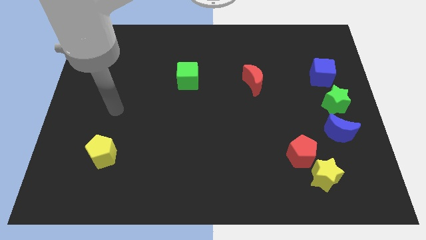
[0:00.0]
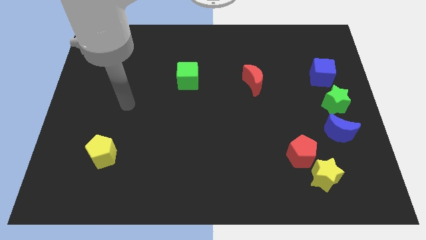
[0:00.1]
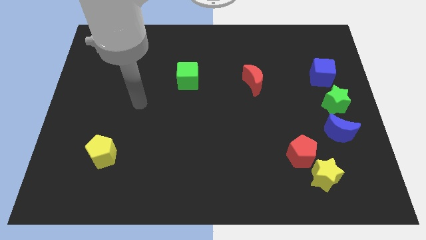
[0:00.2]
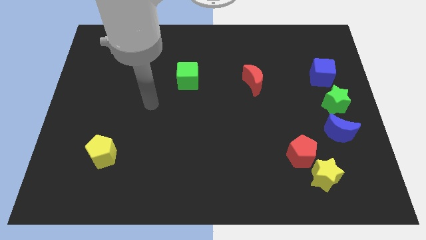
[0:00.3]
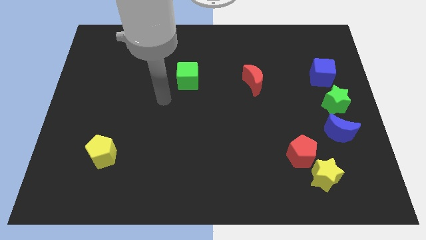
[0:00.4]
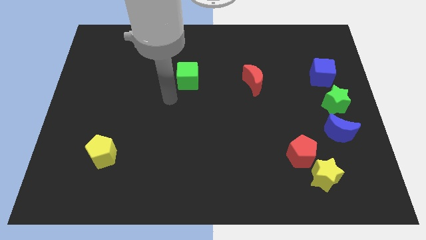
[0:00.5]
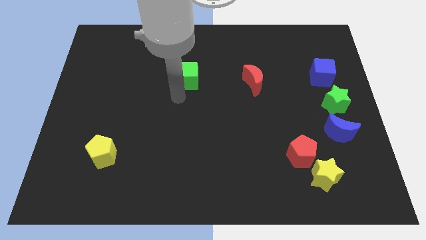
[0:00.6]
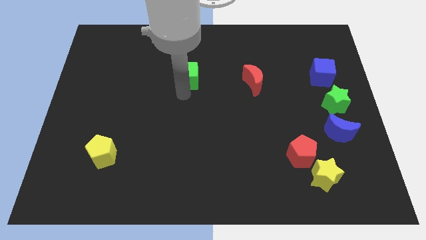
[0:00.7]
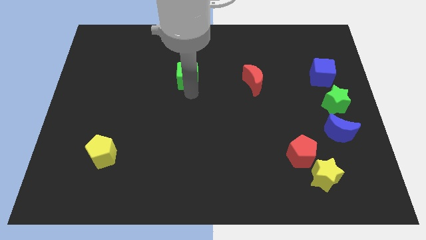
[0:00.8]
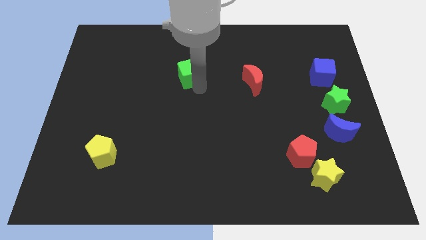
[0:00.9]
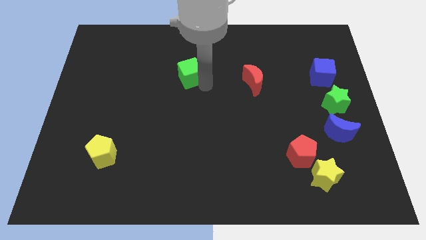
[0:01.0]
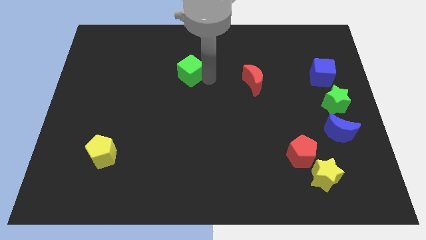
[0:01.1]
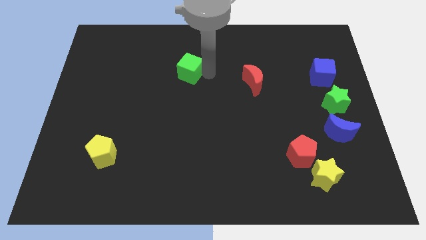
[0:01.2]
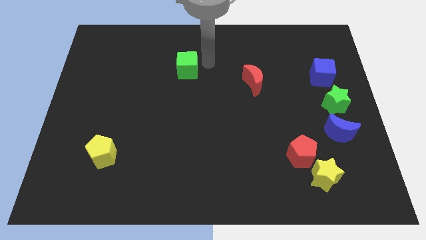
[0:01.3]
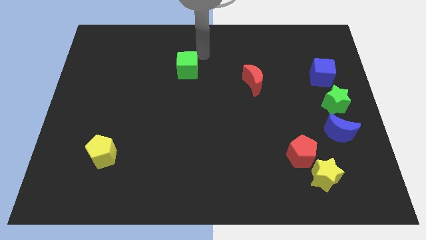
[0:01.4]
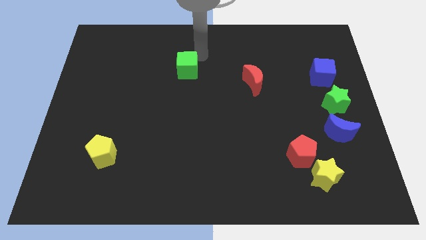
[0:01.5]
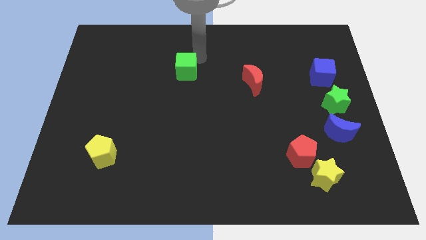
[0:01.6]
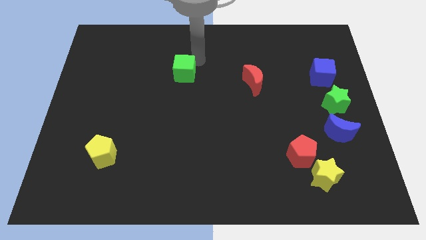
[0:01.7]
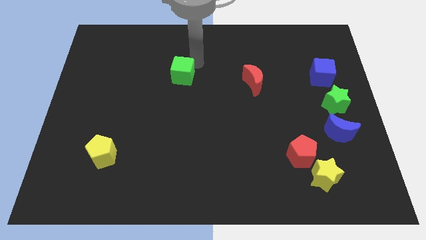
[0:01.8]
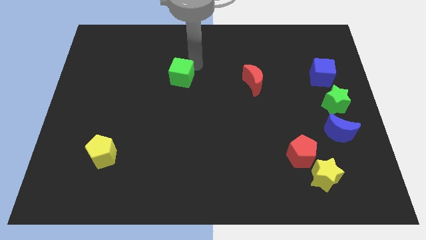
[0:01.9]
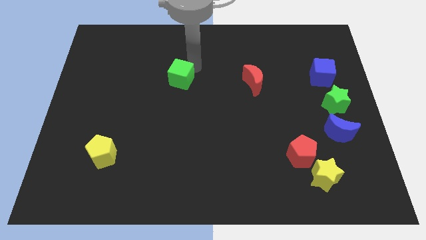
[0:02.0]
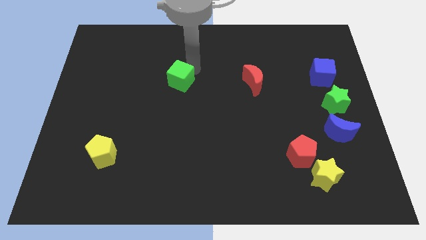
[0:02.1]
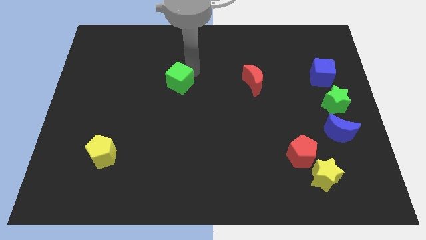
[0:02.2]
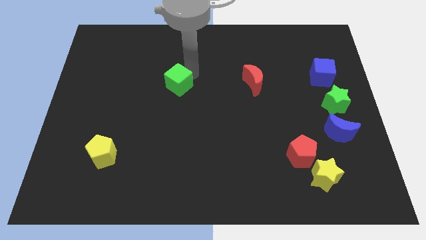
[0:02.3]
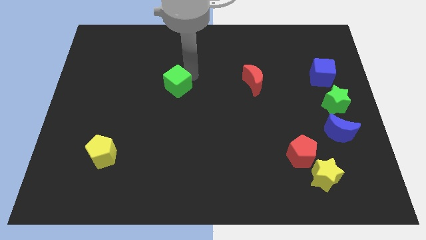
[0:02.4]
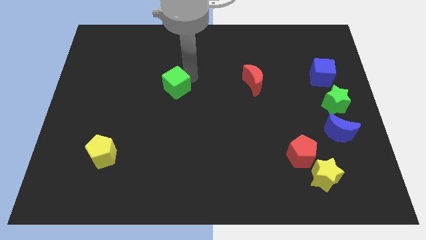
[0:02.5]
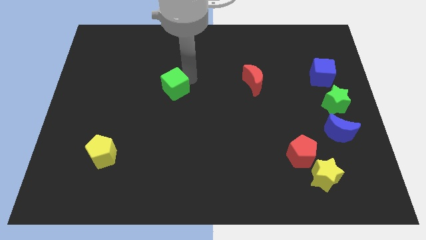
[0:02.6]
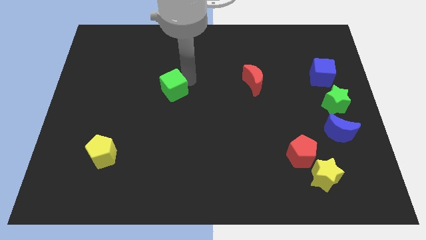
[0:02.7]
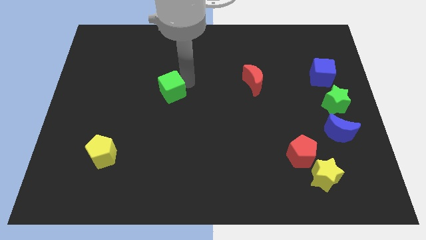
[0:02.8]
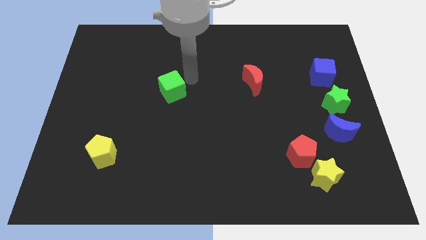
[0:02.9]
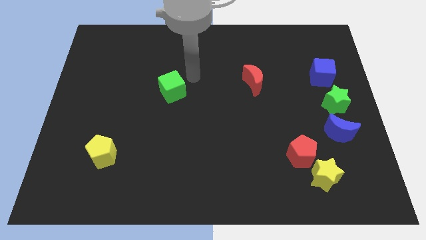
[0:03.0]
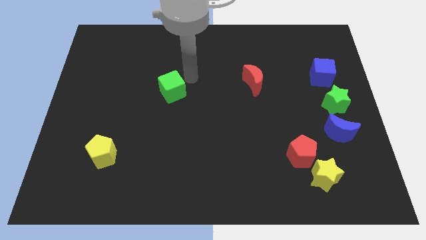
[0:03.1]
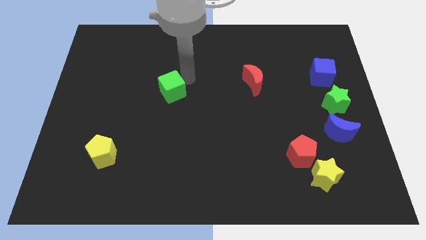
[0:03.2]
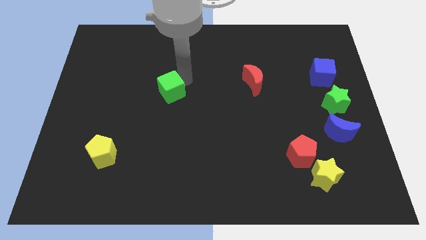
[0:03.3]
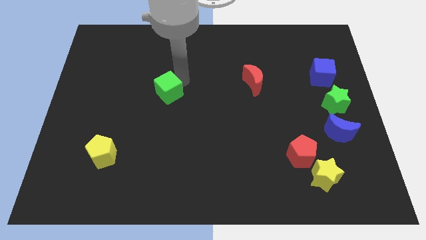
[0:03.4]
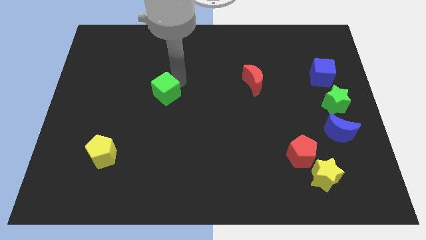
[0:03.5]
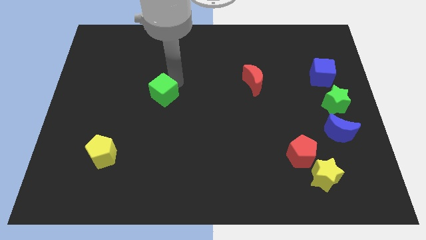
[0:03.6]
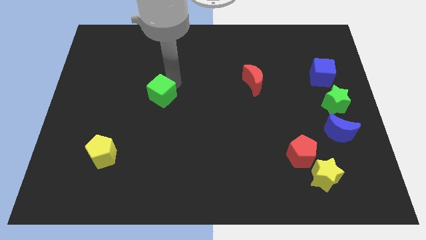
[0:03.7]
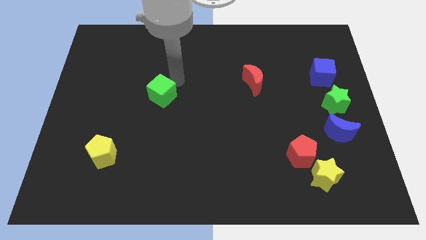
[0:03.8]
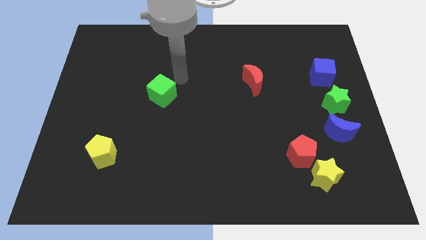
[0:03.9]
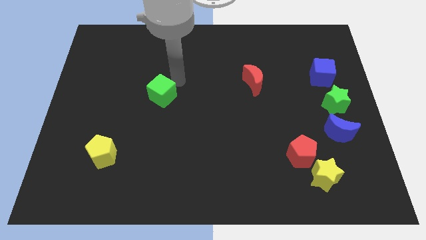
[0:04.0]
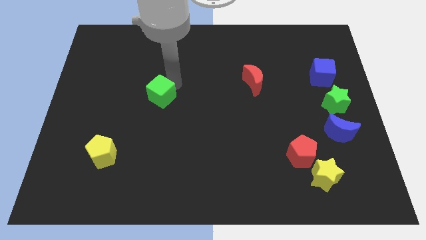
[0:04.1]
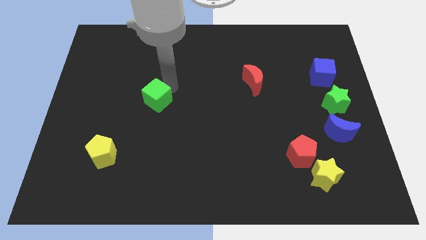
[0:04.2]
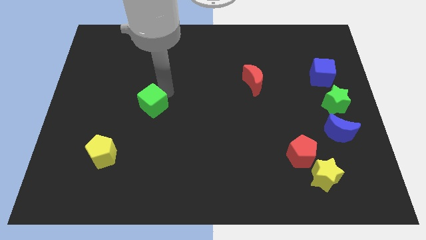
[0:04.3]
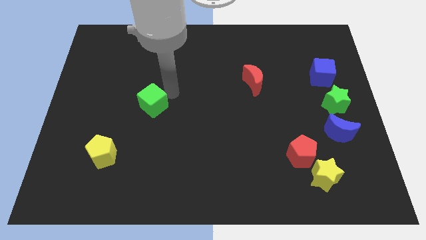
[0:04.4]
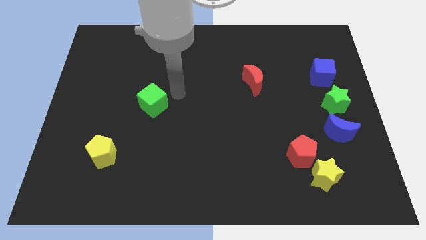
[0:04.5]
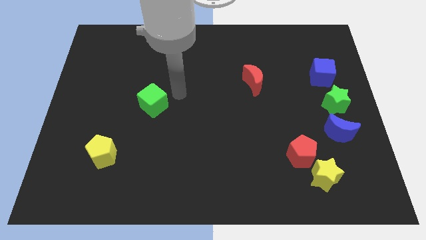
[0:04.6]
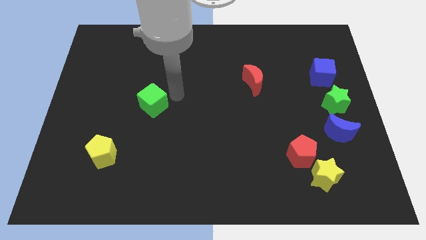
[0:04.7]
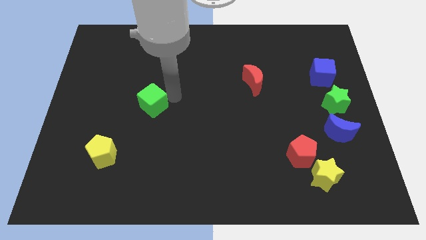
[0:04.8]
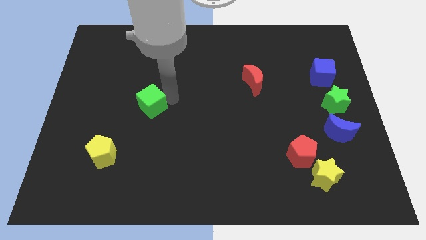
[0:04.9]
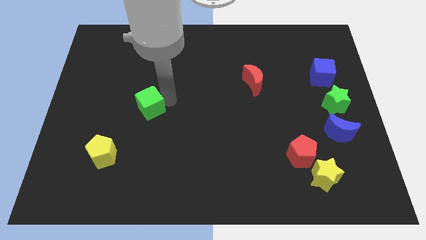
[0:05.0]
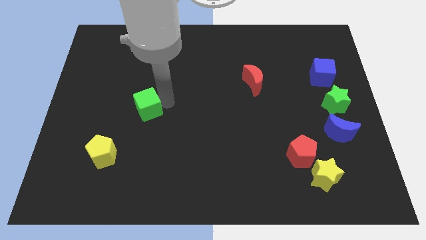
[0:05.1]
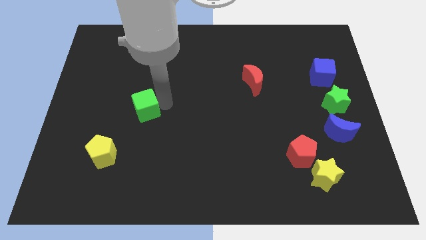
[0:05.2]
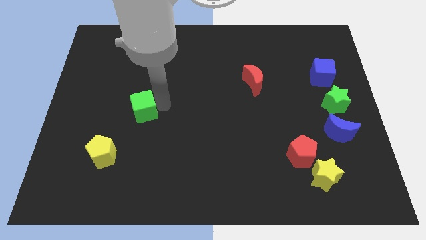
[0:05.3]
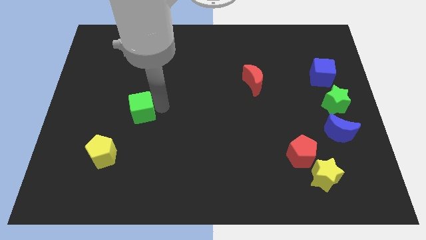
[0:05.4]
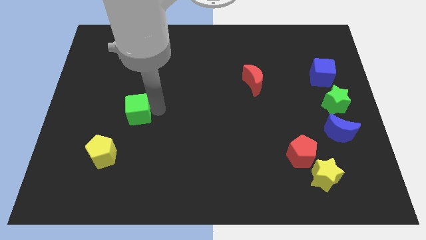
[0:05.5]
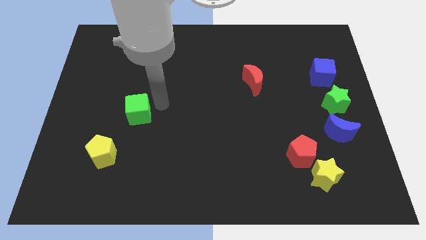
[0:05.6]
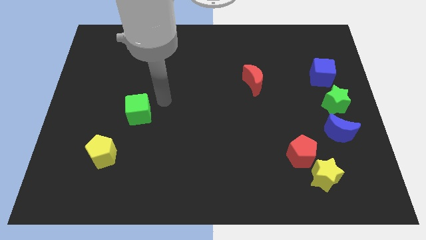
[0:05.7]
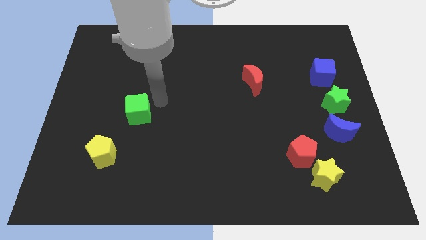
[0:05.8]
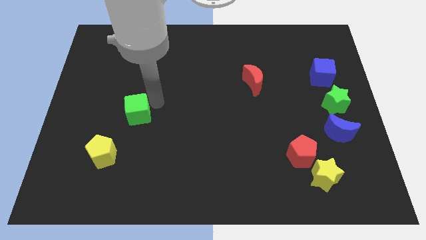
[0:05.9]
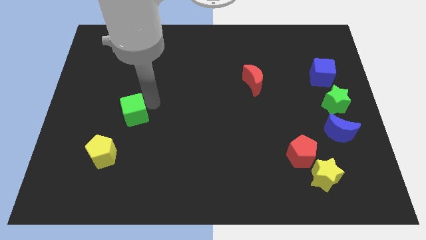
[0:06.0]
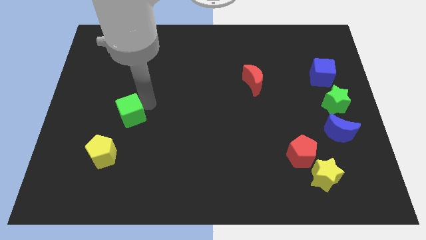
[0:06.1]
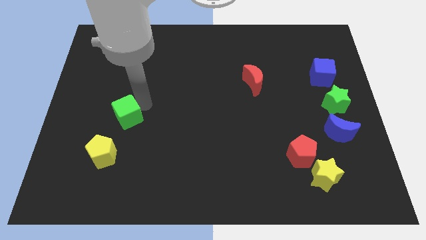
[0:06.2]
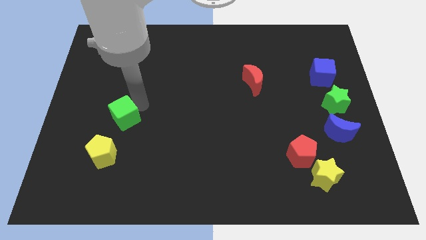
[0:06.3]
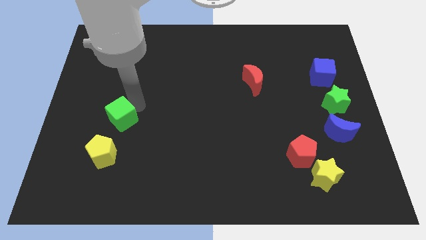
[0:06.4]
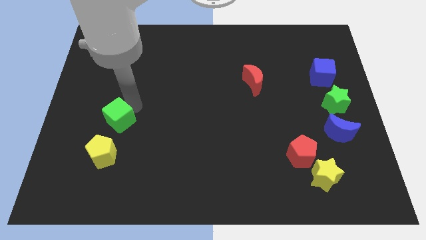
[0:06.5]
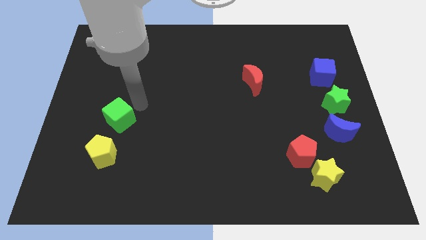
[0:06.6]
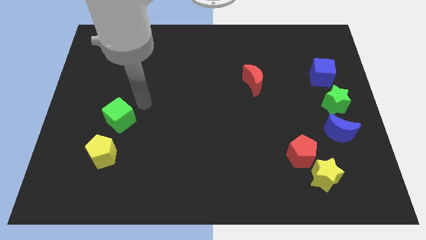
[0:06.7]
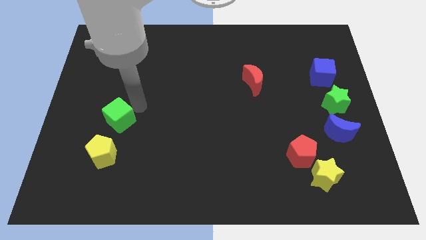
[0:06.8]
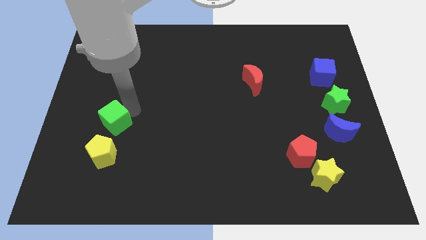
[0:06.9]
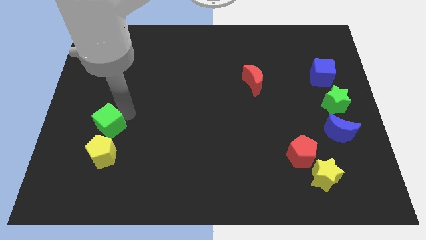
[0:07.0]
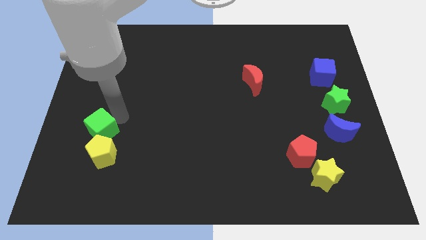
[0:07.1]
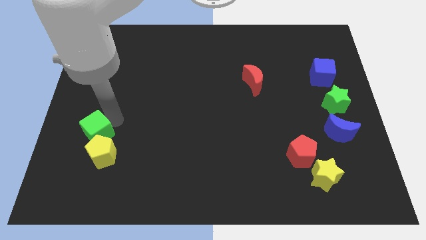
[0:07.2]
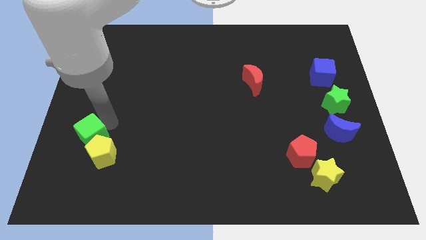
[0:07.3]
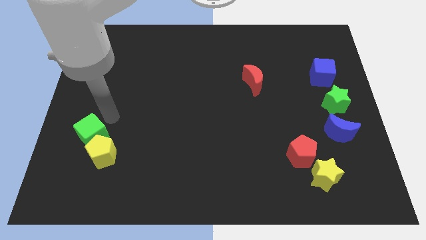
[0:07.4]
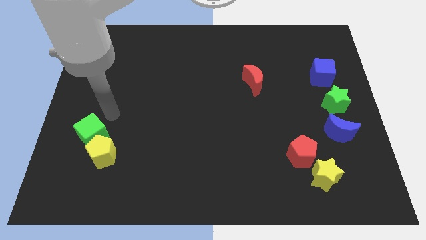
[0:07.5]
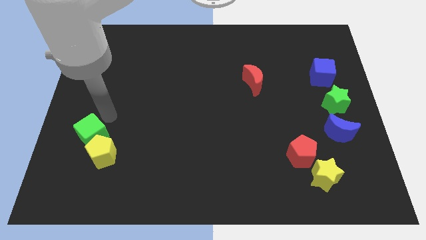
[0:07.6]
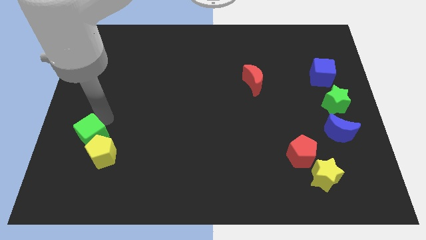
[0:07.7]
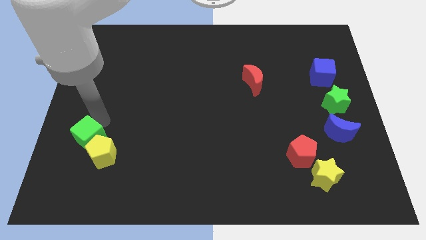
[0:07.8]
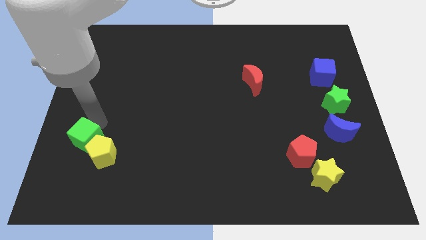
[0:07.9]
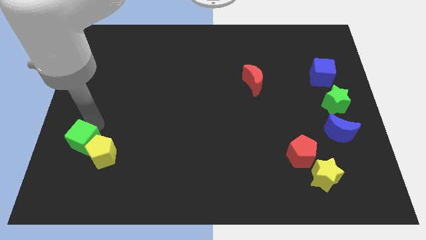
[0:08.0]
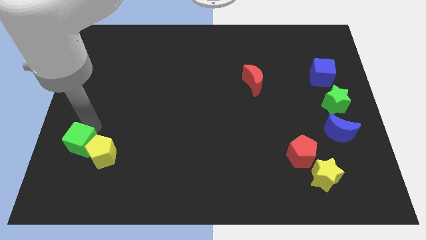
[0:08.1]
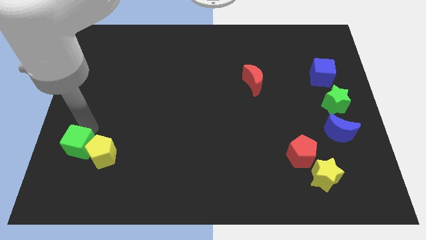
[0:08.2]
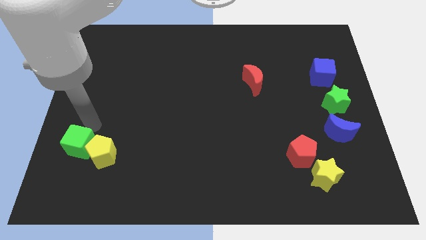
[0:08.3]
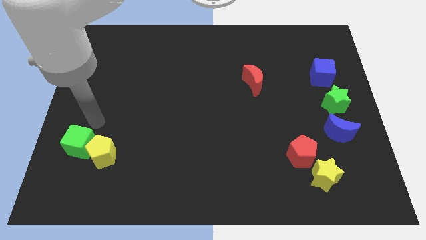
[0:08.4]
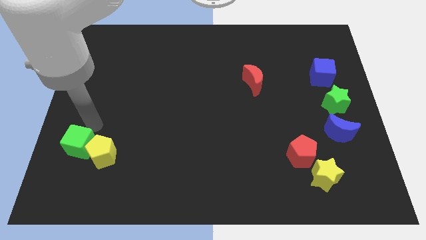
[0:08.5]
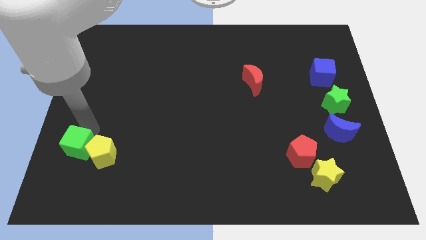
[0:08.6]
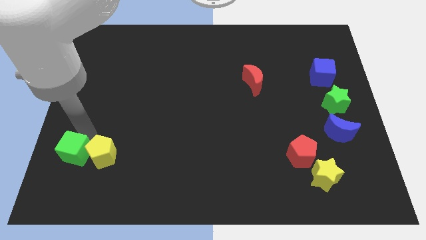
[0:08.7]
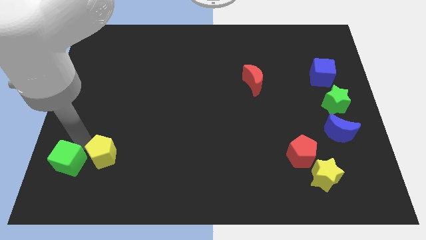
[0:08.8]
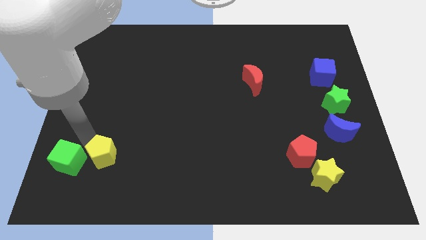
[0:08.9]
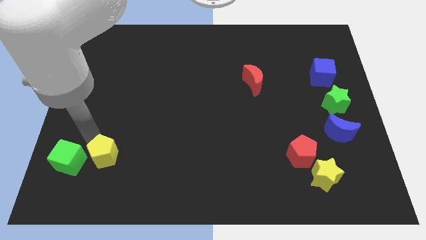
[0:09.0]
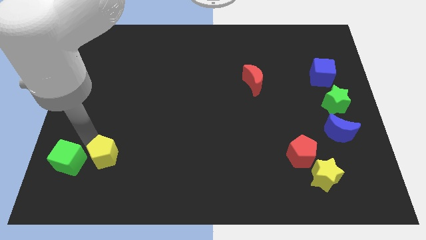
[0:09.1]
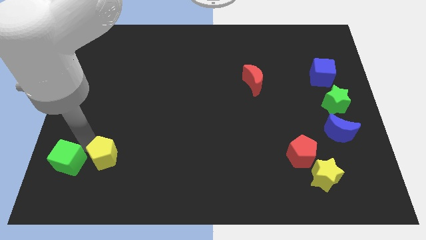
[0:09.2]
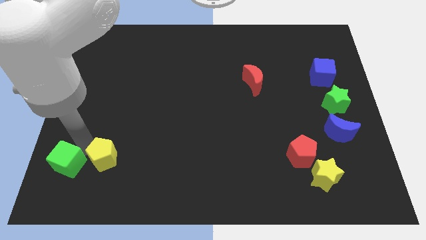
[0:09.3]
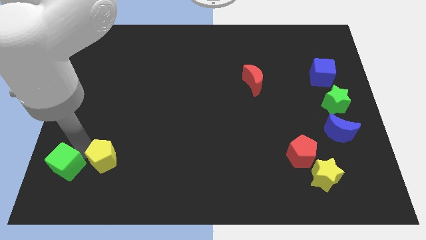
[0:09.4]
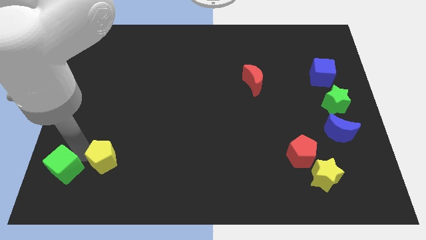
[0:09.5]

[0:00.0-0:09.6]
put the green cube to the lower left corner
